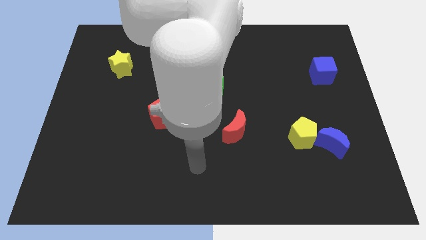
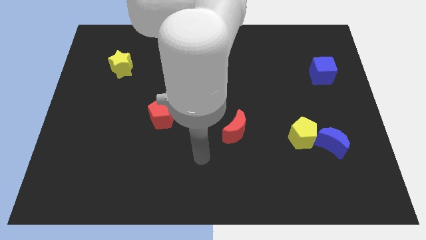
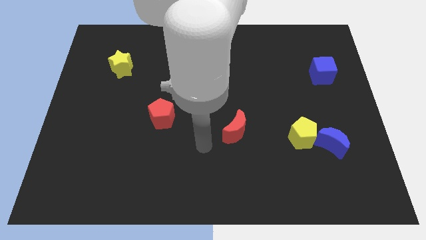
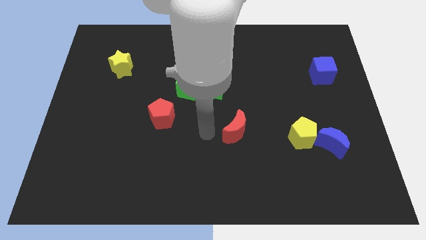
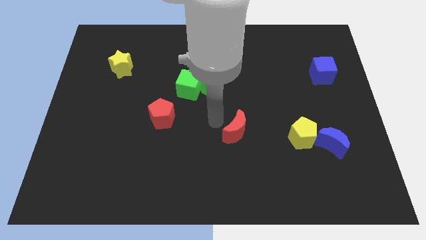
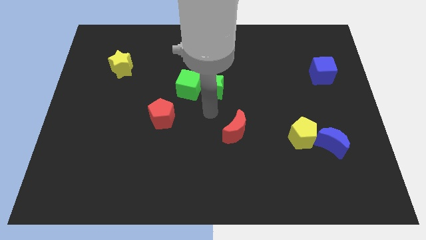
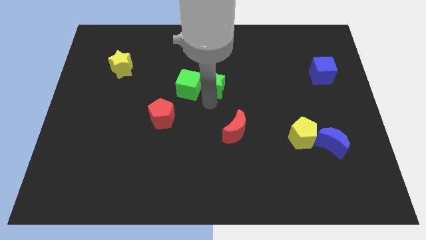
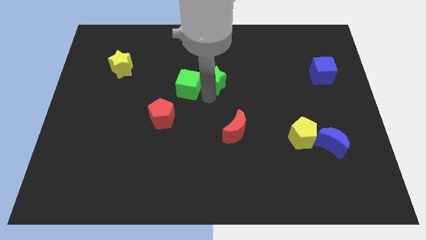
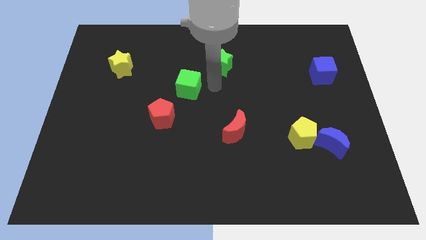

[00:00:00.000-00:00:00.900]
pull the green cube apart from the green star

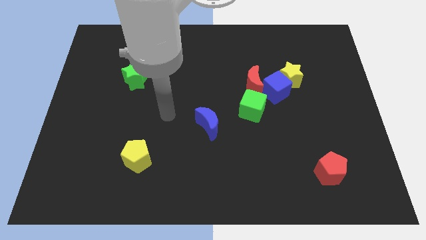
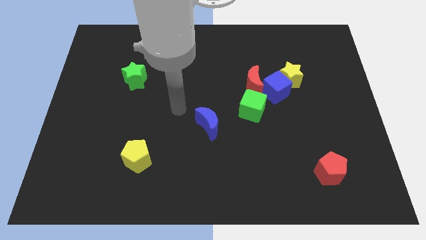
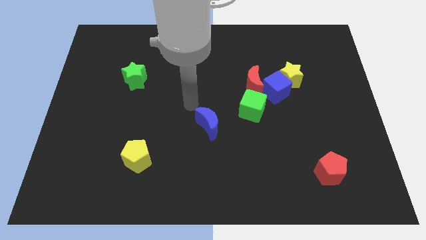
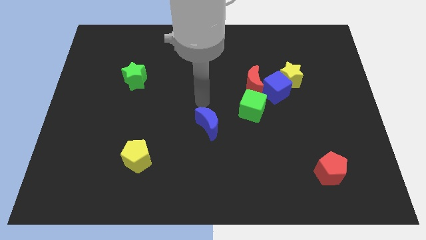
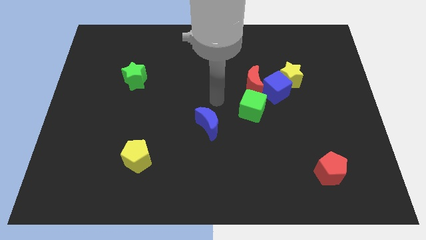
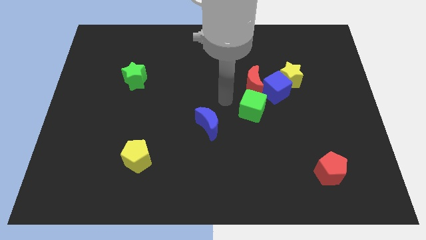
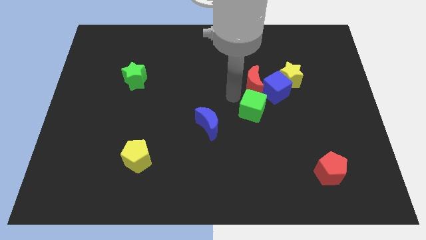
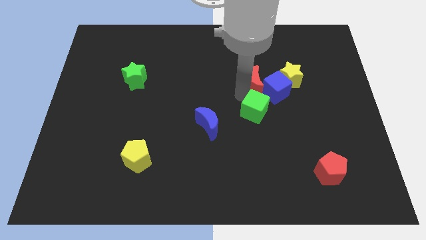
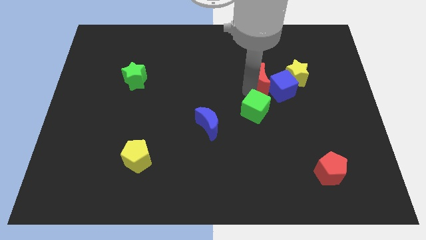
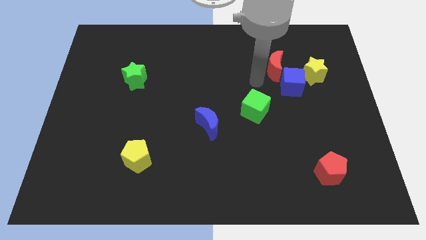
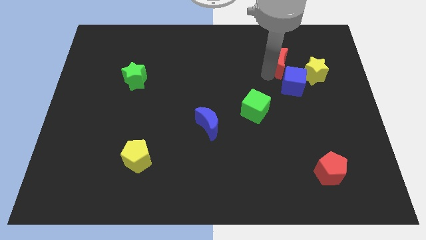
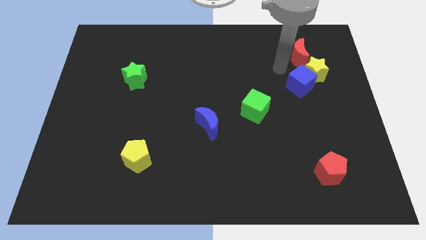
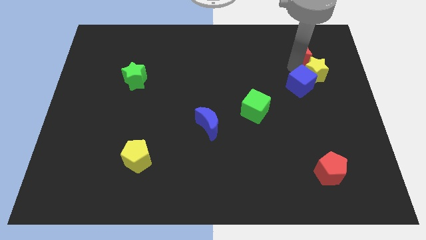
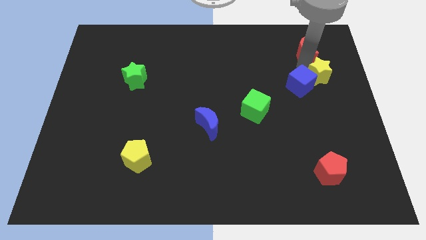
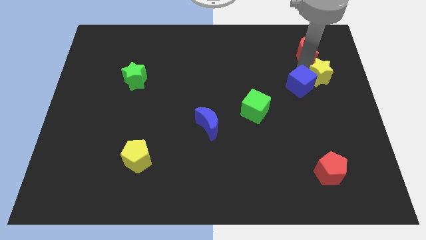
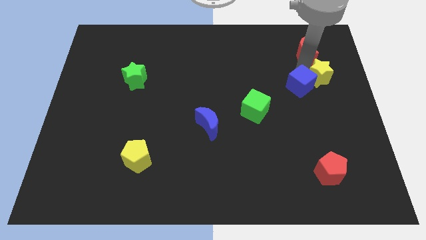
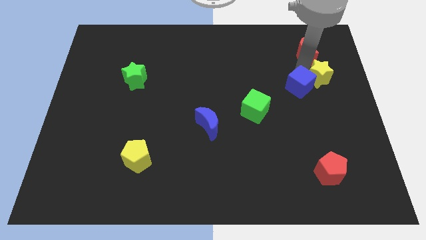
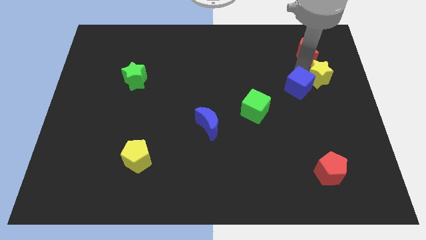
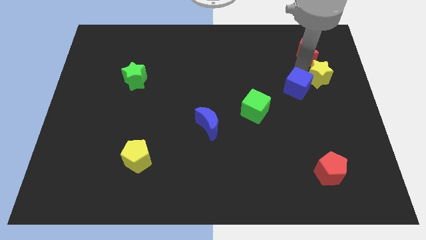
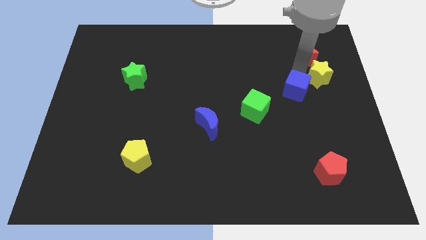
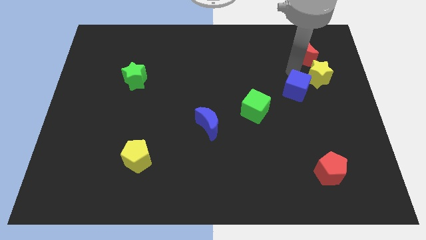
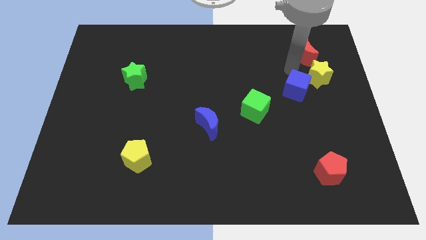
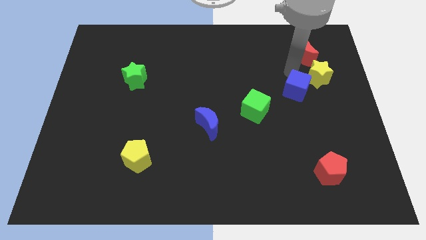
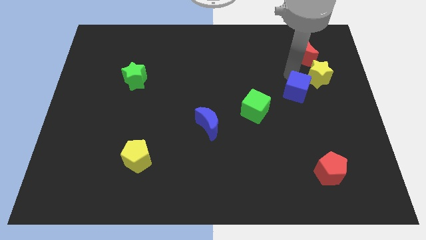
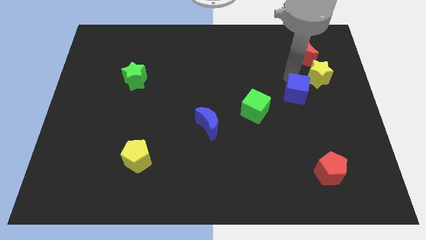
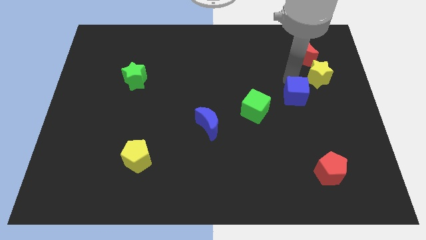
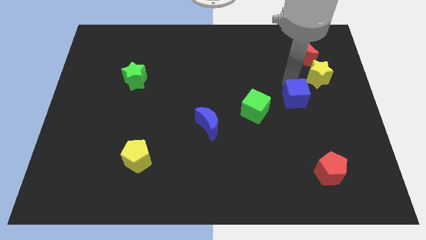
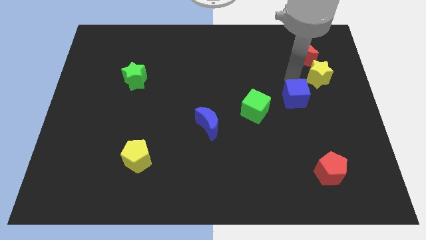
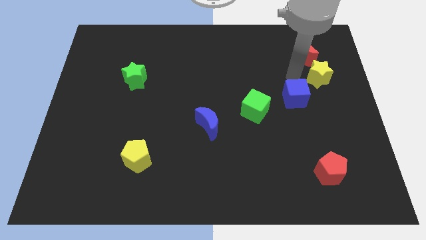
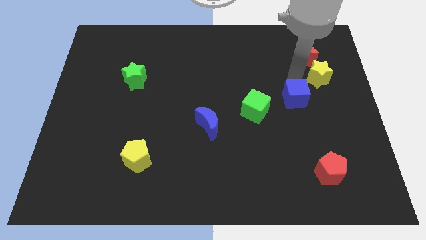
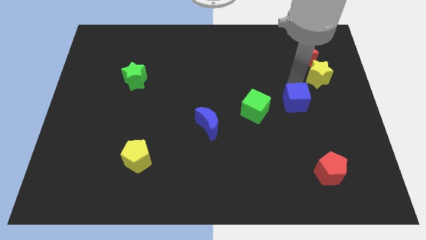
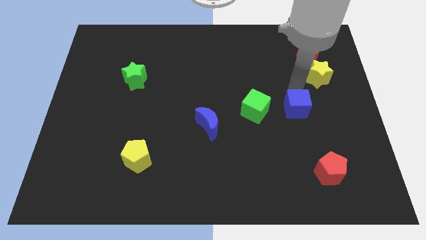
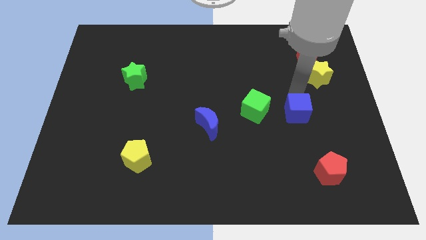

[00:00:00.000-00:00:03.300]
move the blue cube away from the yellow star, red moon, and green cube

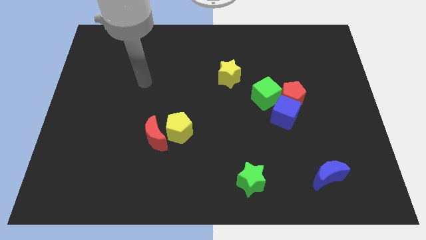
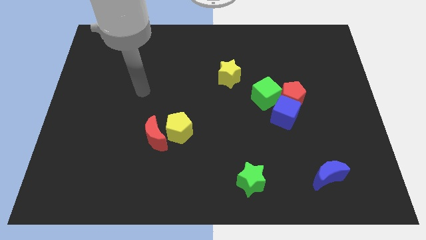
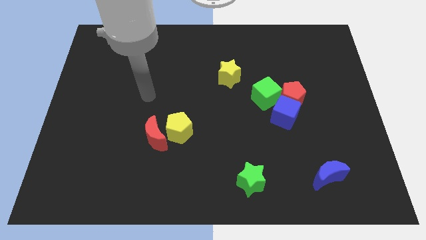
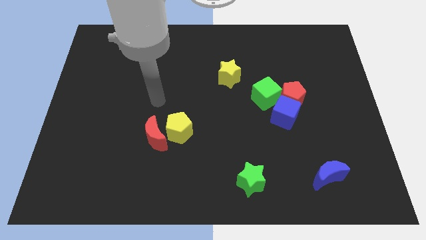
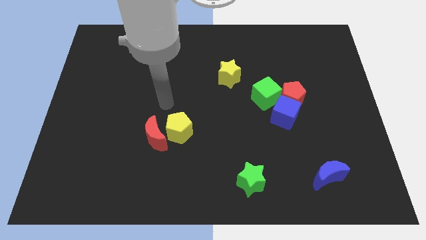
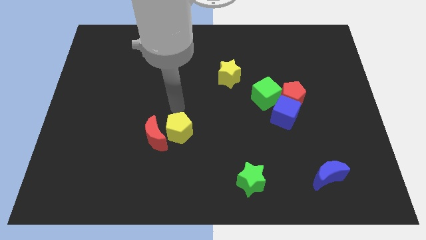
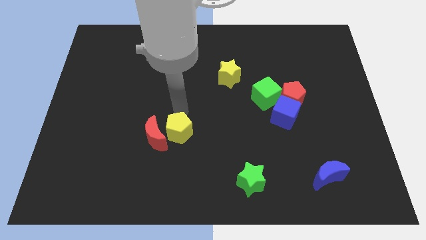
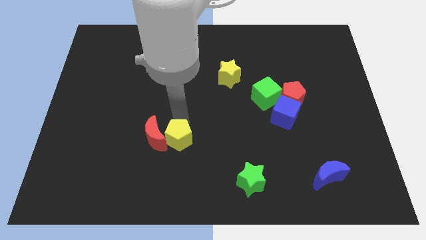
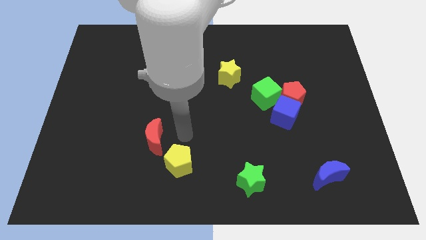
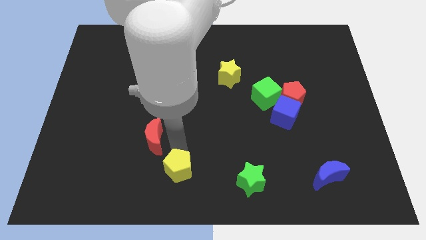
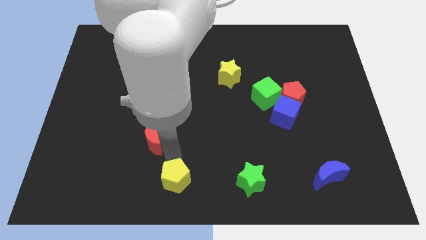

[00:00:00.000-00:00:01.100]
pull the red moon apart from the yellow pentagon

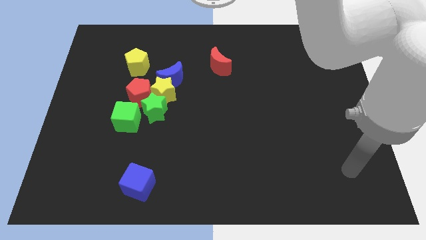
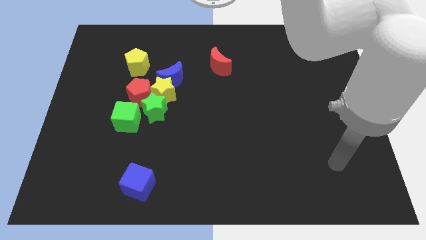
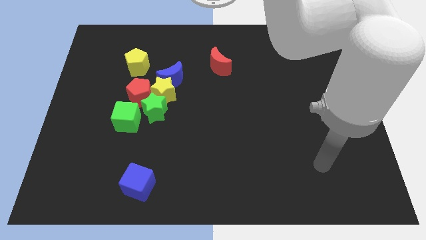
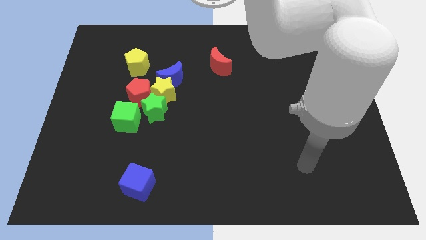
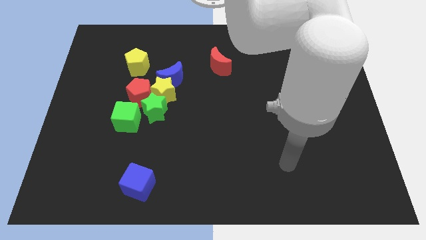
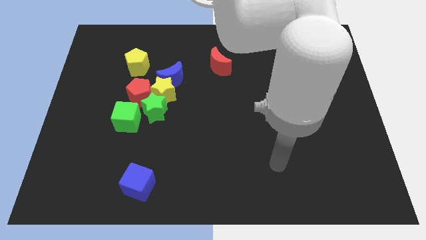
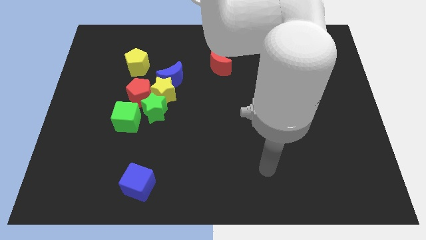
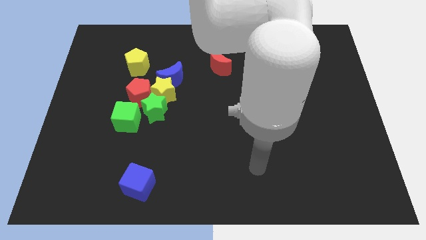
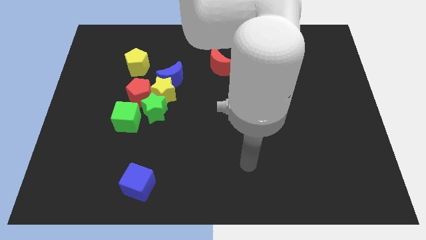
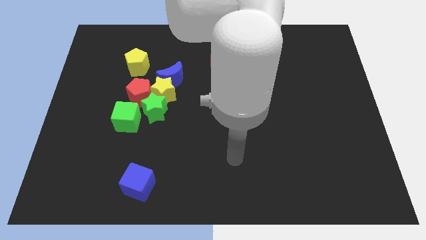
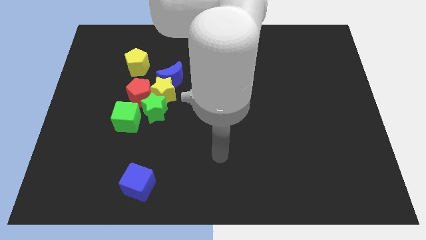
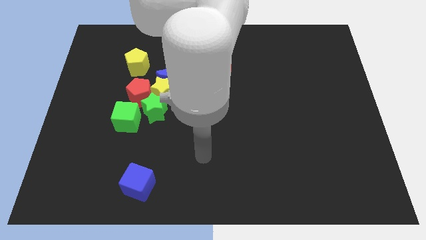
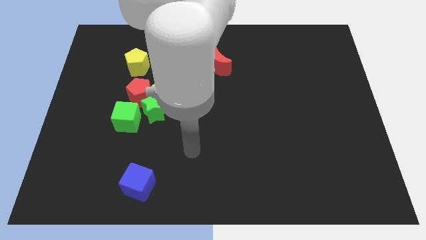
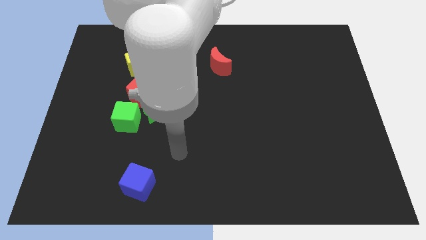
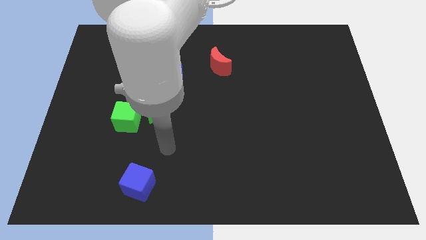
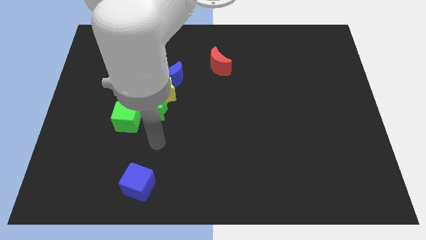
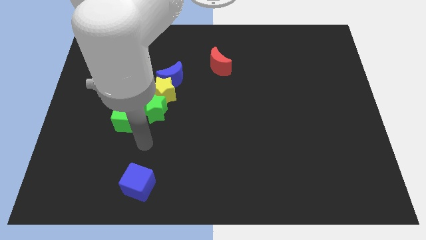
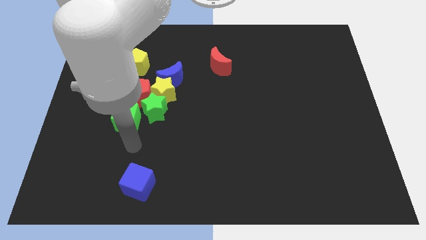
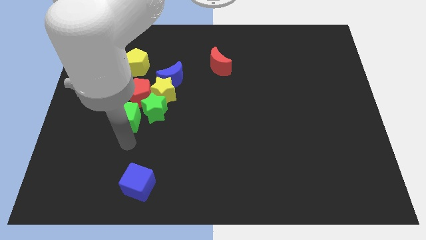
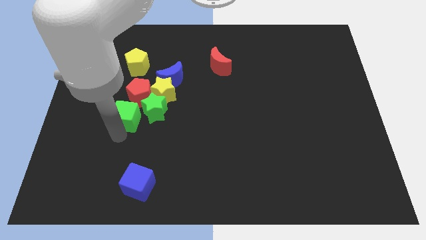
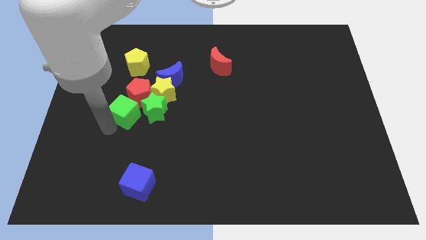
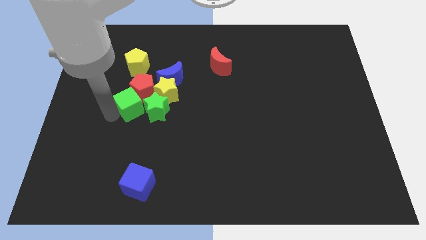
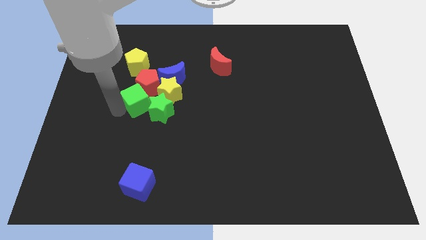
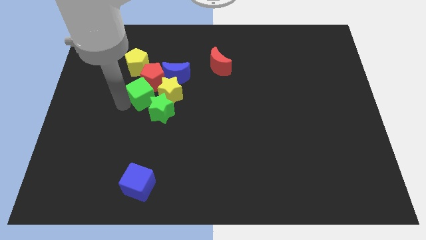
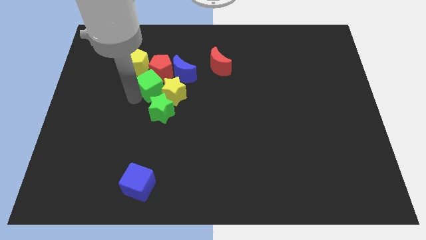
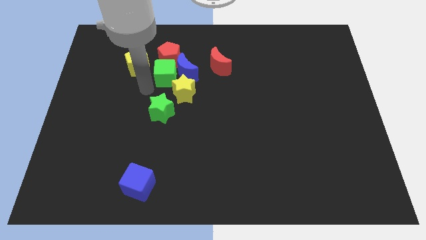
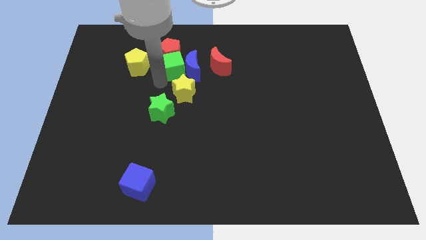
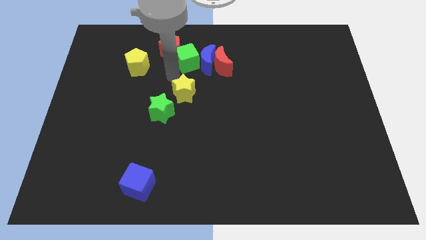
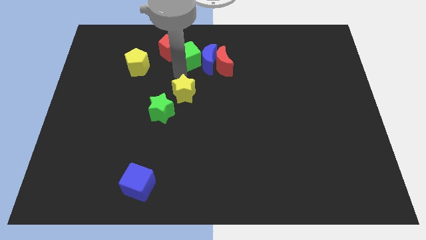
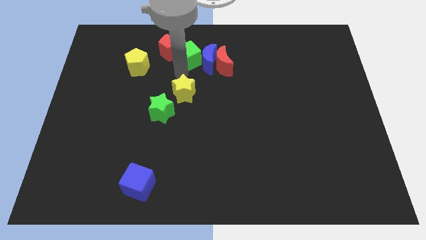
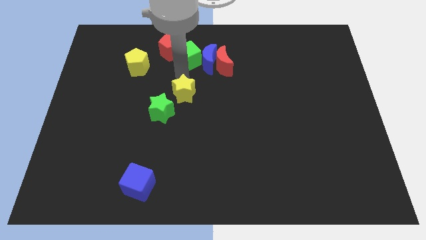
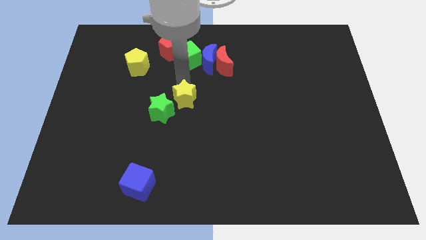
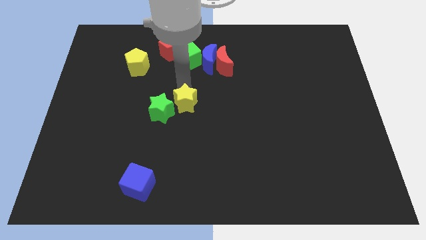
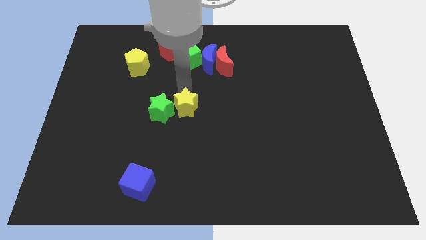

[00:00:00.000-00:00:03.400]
move the yellow star away from the blue moon, red pentagon, and green star

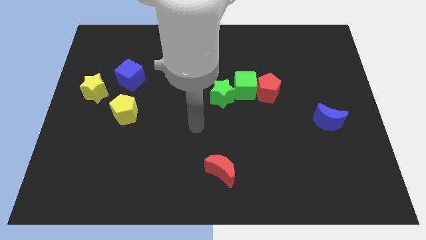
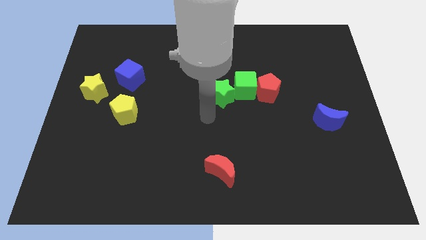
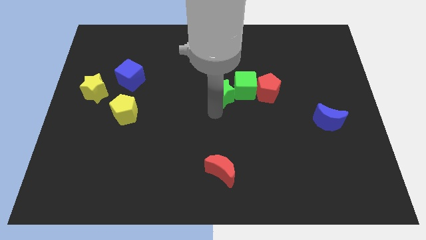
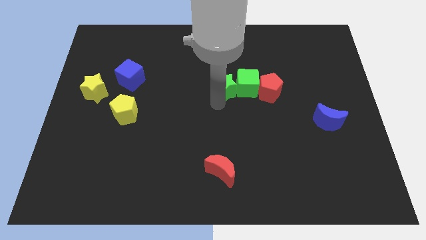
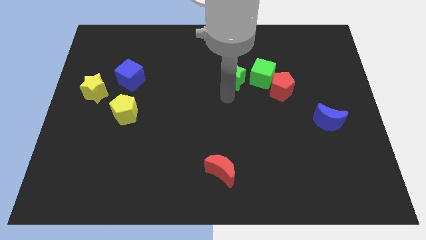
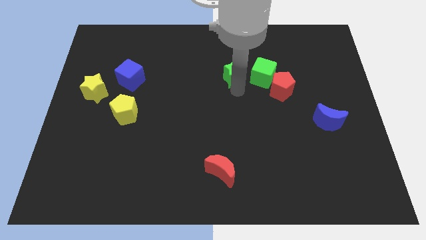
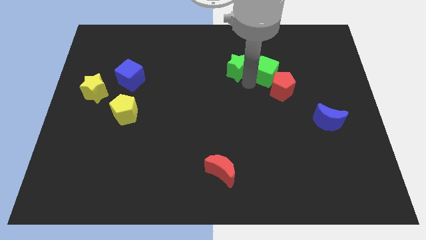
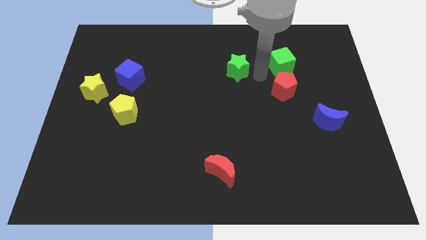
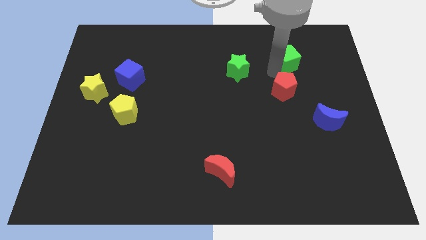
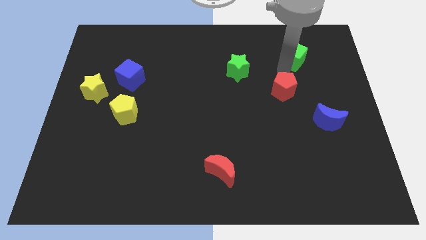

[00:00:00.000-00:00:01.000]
move the red pentagon away from the green cube
